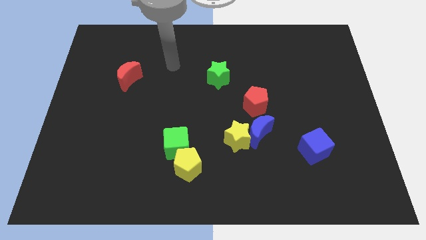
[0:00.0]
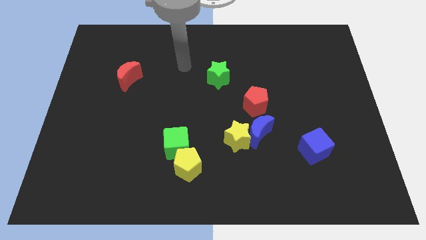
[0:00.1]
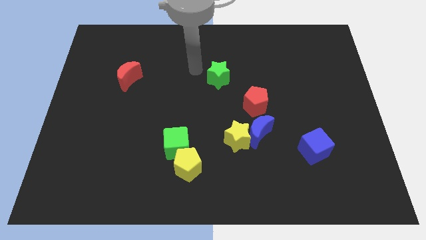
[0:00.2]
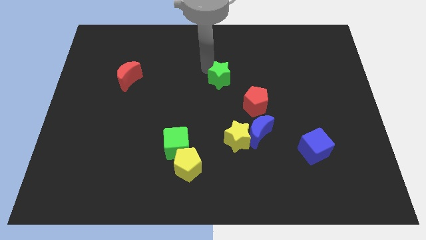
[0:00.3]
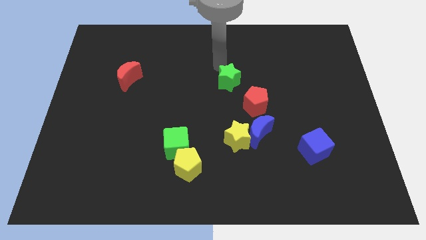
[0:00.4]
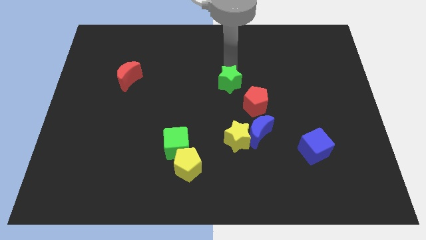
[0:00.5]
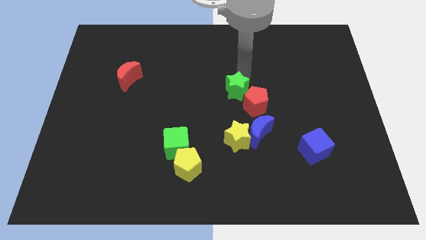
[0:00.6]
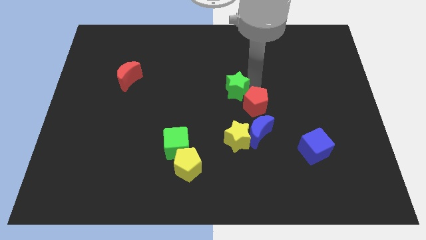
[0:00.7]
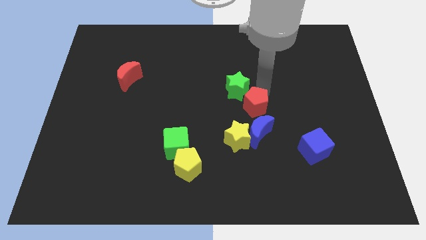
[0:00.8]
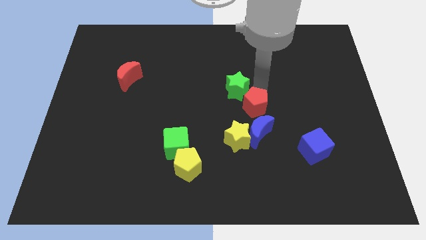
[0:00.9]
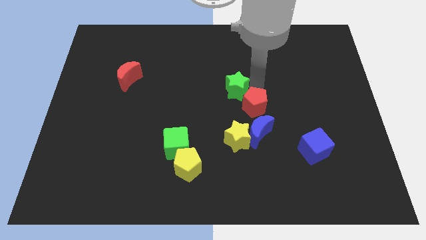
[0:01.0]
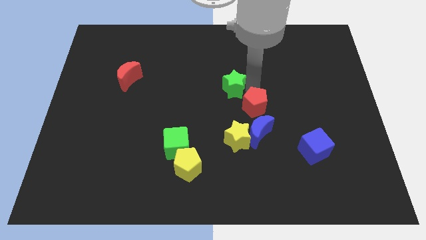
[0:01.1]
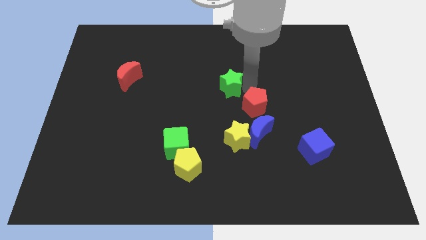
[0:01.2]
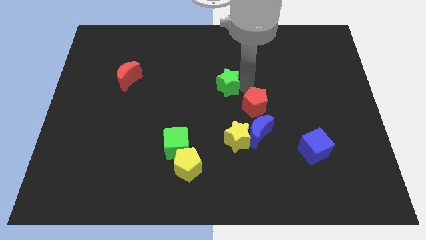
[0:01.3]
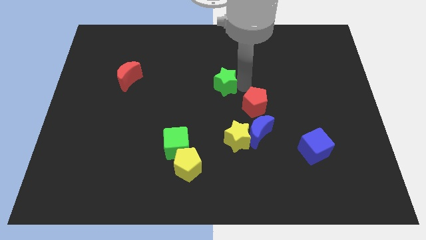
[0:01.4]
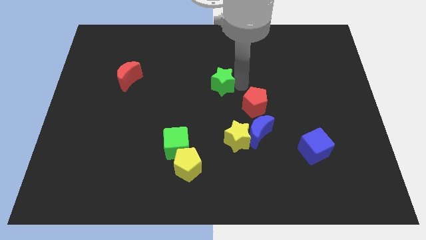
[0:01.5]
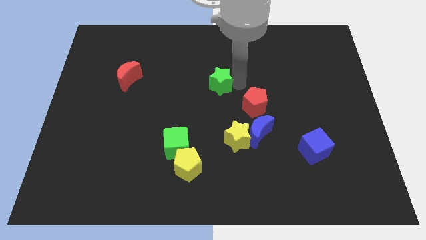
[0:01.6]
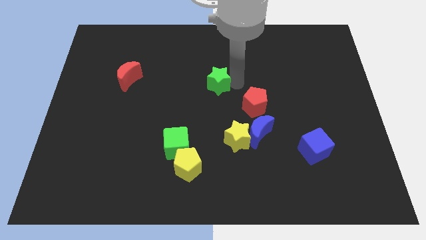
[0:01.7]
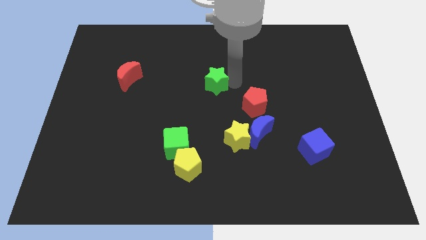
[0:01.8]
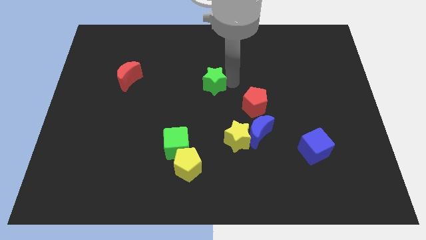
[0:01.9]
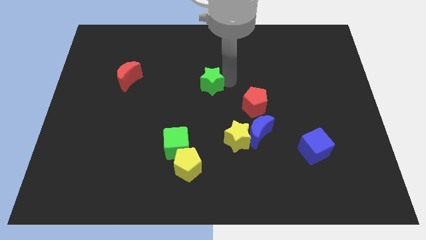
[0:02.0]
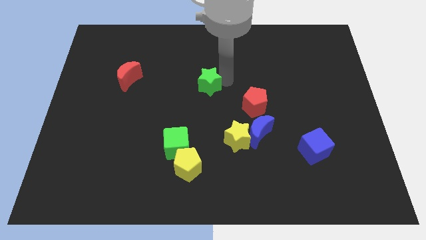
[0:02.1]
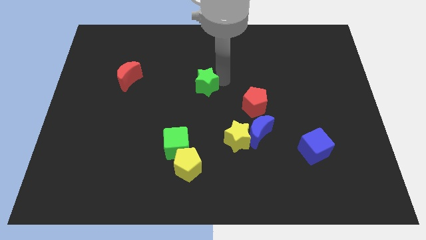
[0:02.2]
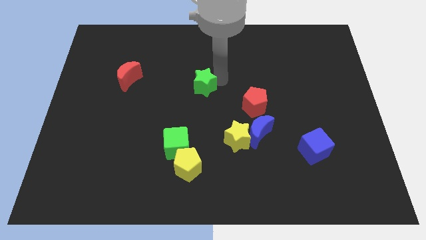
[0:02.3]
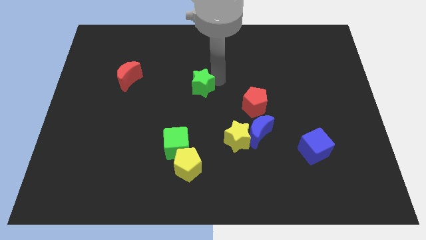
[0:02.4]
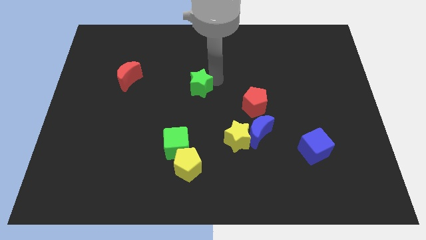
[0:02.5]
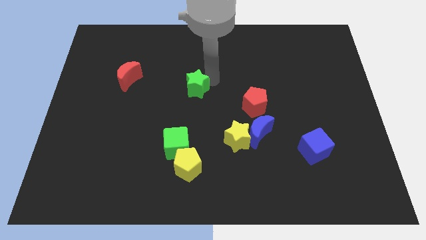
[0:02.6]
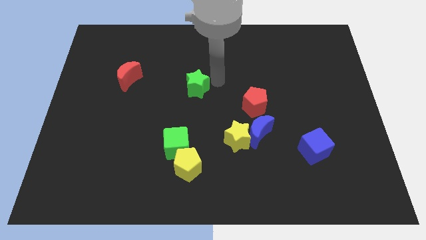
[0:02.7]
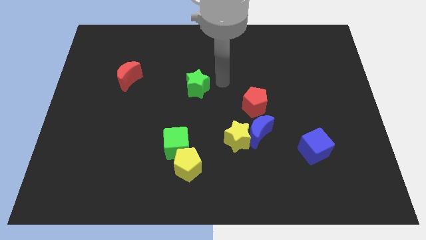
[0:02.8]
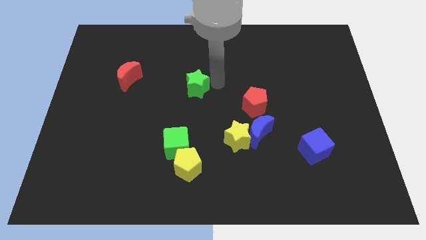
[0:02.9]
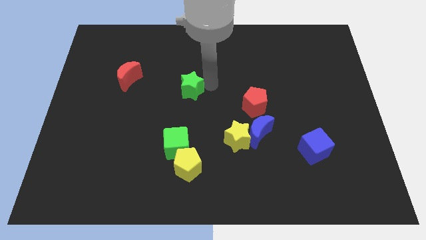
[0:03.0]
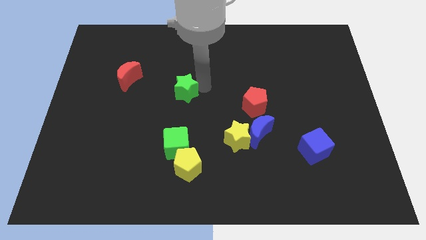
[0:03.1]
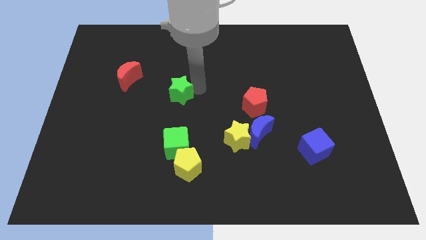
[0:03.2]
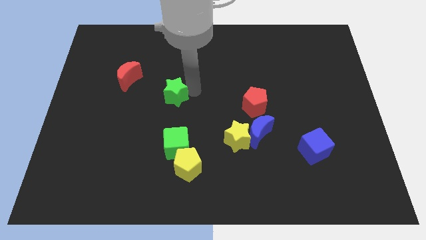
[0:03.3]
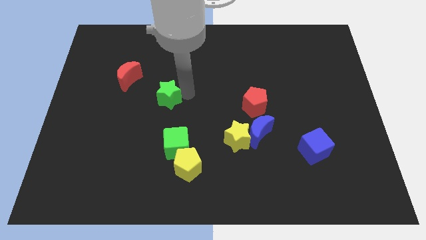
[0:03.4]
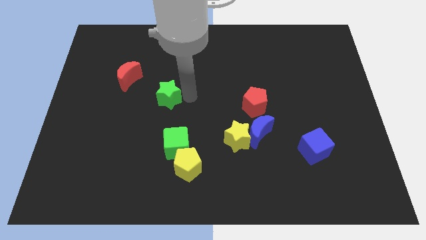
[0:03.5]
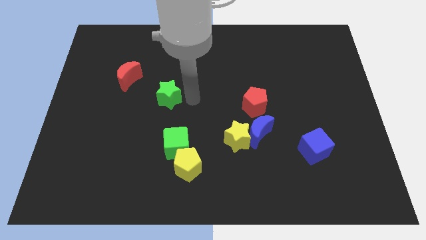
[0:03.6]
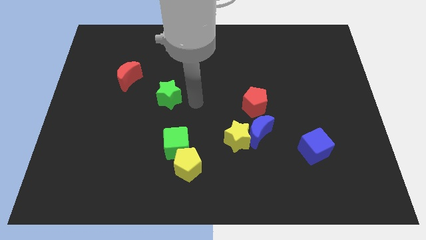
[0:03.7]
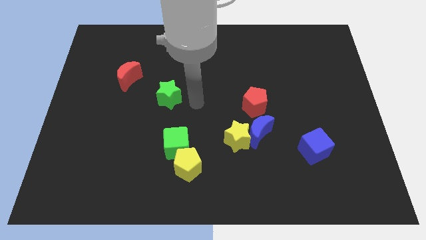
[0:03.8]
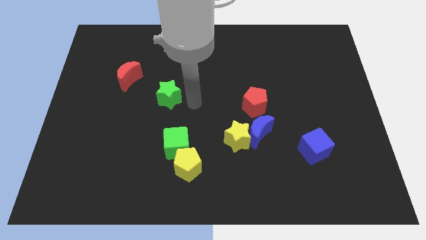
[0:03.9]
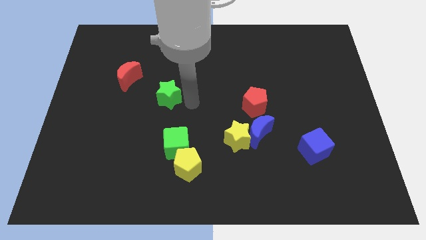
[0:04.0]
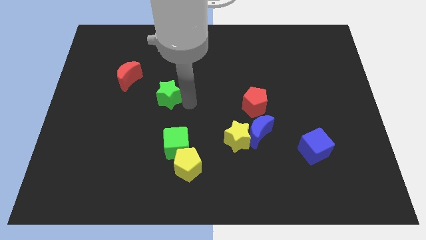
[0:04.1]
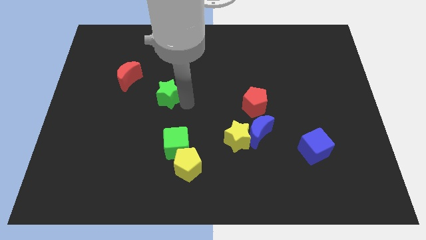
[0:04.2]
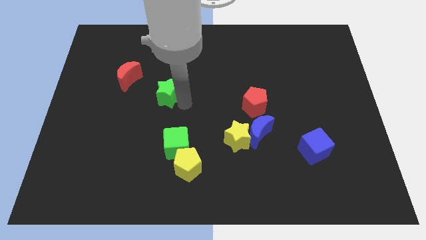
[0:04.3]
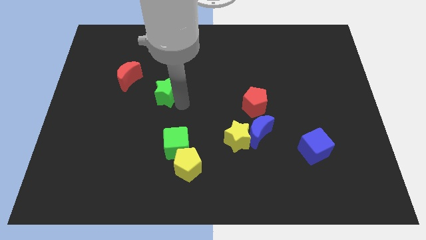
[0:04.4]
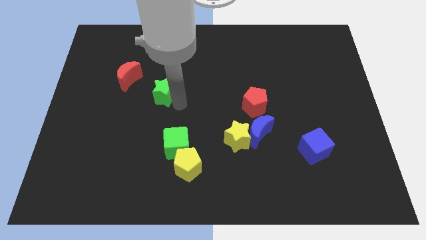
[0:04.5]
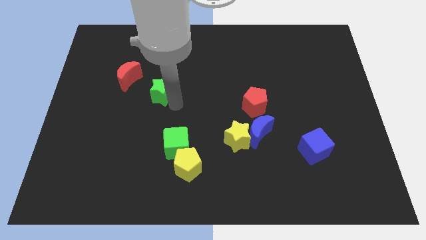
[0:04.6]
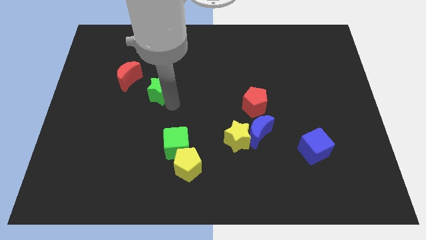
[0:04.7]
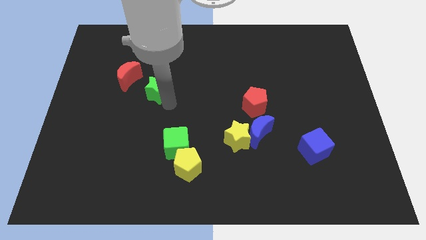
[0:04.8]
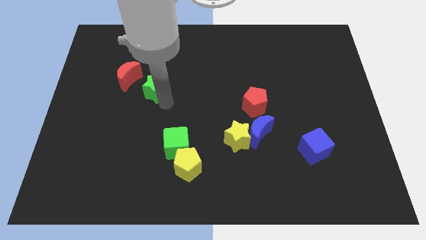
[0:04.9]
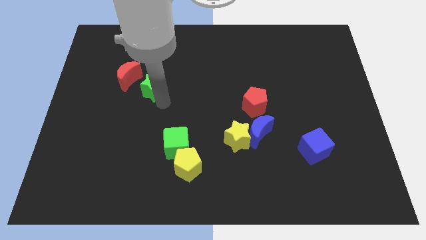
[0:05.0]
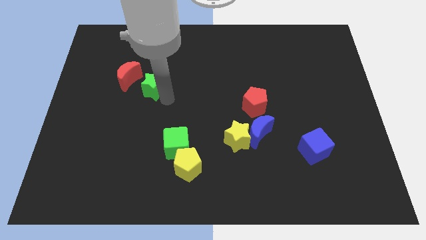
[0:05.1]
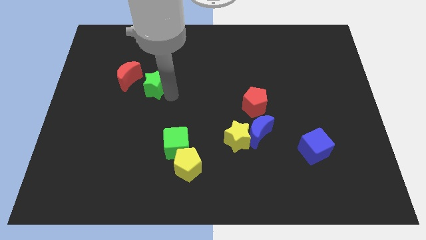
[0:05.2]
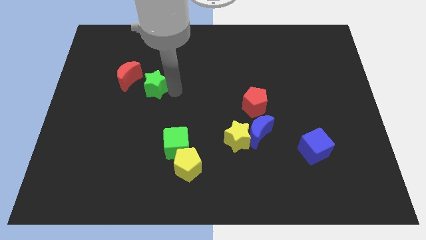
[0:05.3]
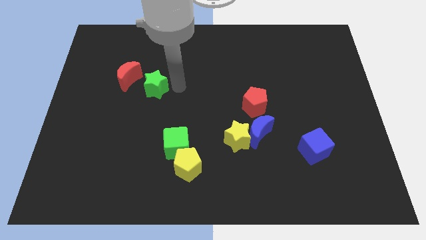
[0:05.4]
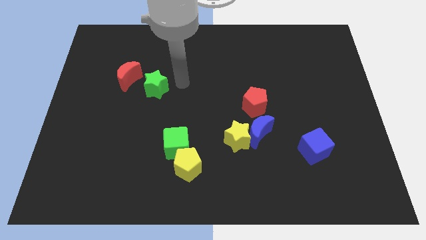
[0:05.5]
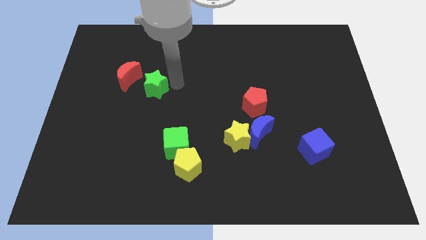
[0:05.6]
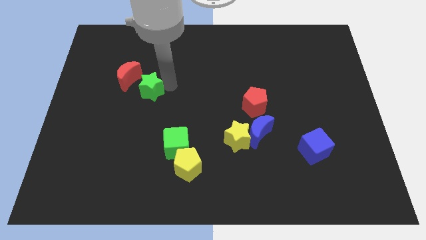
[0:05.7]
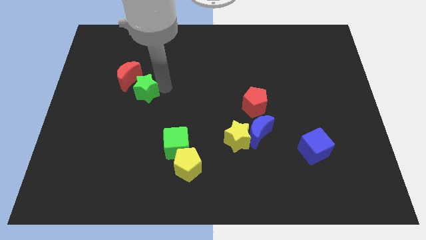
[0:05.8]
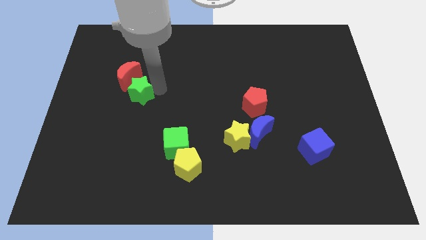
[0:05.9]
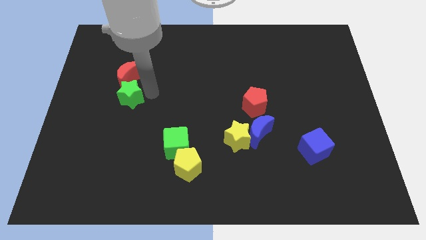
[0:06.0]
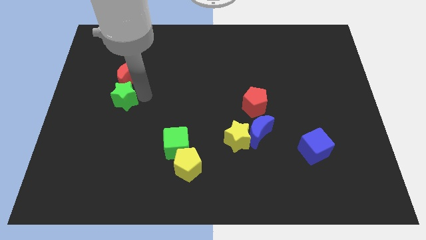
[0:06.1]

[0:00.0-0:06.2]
move the green star to the bottom left side of the red moon

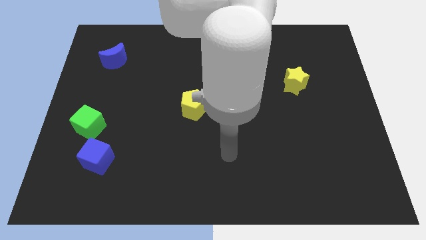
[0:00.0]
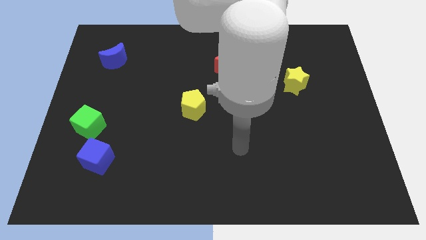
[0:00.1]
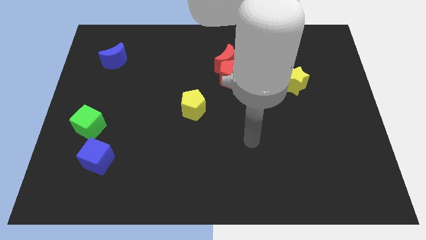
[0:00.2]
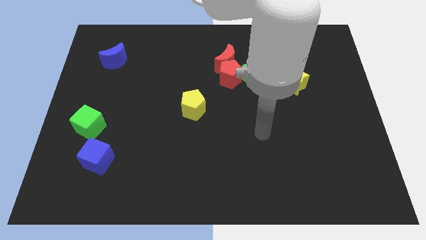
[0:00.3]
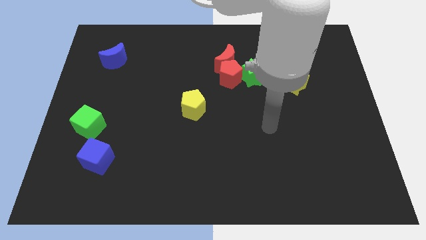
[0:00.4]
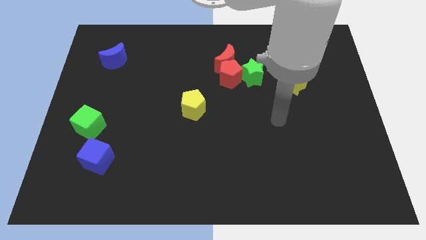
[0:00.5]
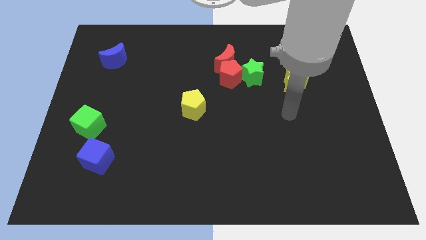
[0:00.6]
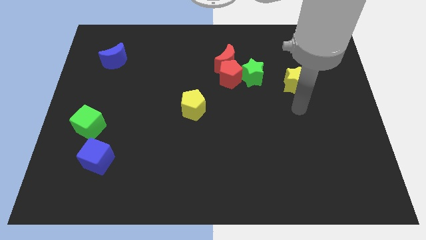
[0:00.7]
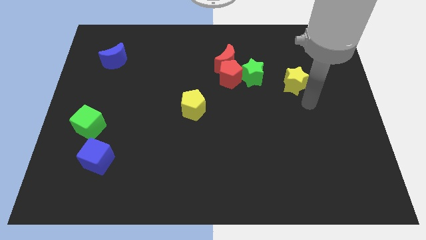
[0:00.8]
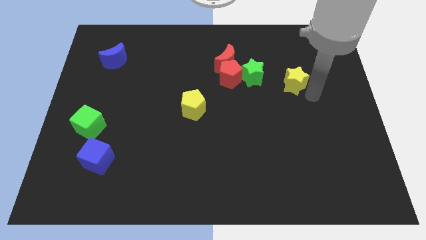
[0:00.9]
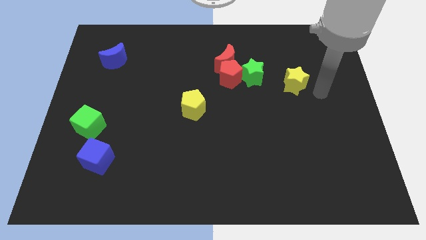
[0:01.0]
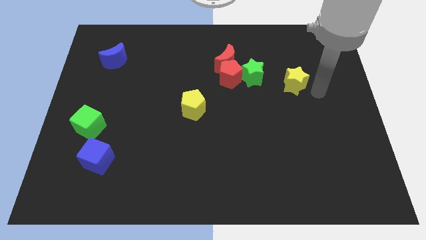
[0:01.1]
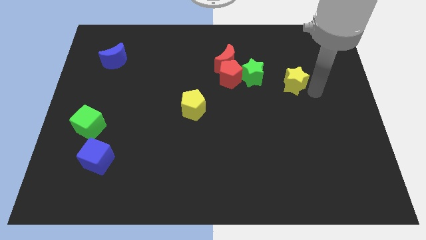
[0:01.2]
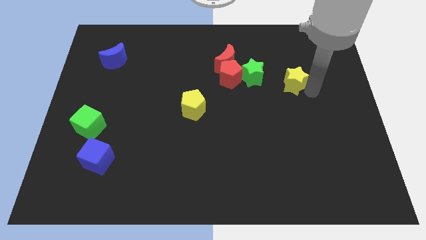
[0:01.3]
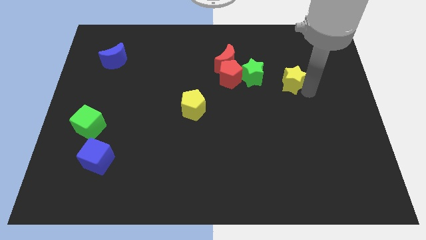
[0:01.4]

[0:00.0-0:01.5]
move the yellow star just right of the red pentagon
